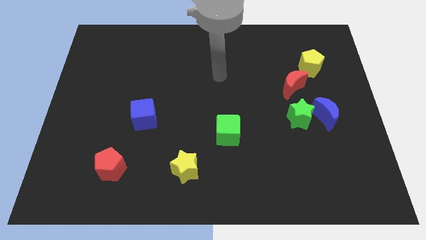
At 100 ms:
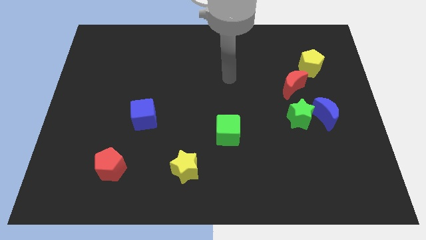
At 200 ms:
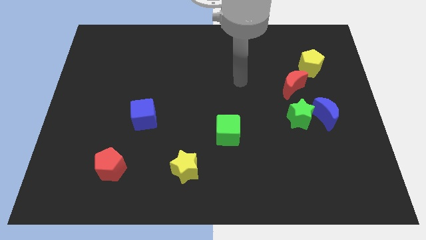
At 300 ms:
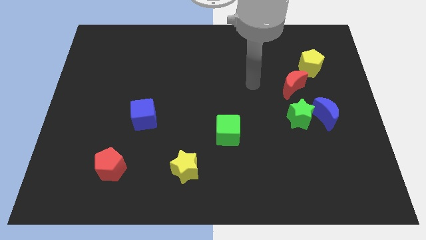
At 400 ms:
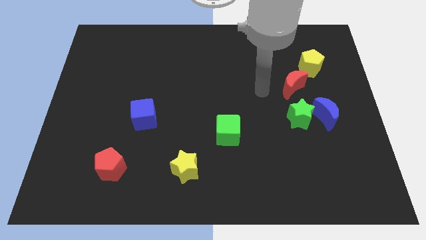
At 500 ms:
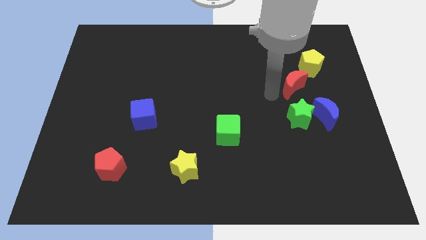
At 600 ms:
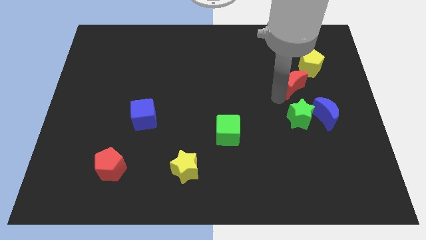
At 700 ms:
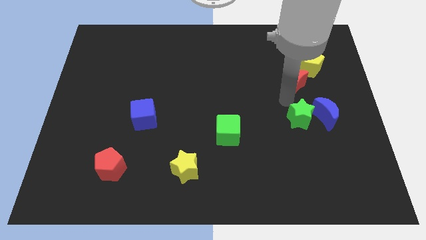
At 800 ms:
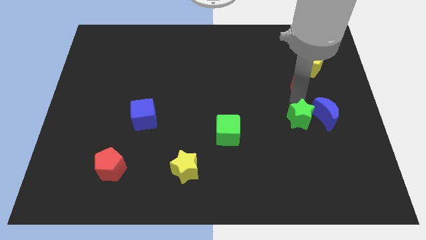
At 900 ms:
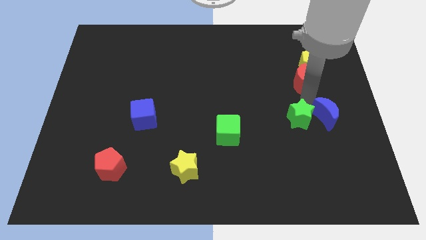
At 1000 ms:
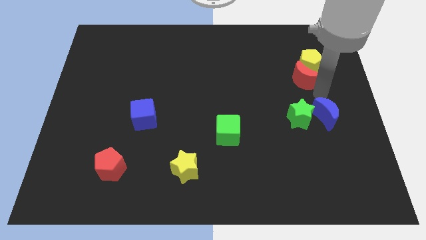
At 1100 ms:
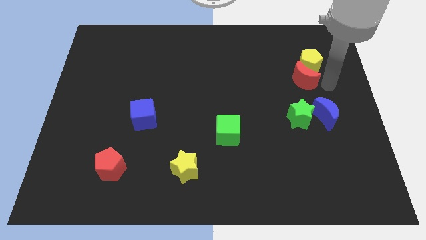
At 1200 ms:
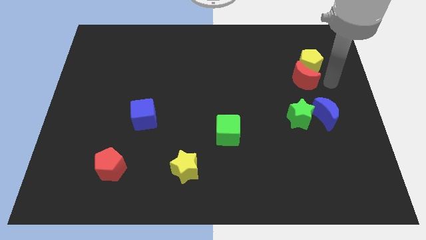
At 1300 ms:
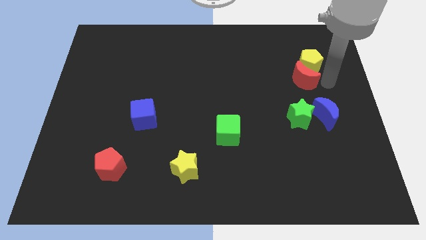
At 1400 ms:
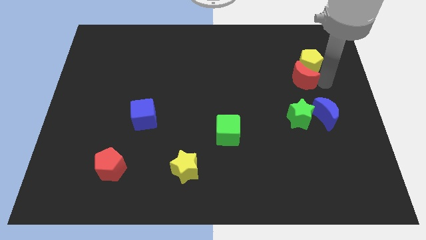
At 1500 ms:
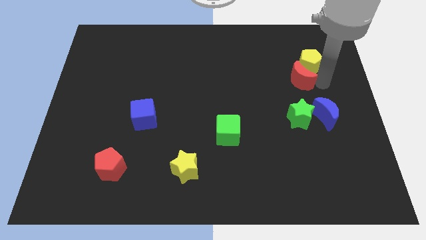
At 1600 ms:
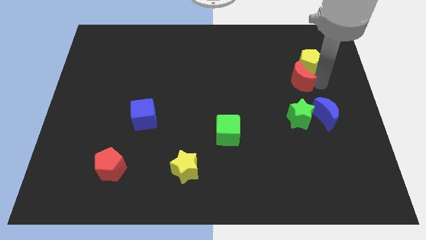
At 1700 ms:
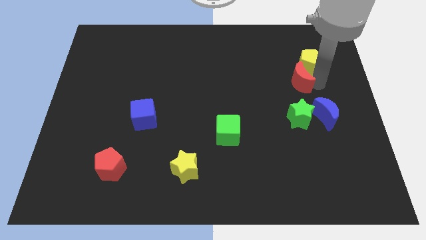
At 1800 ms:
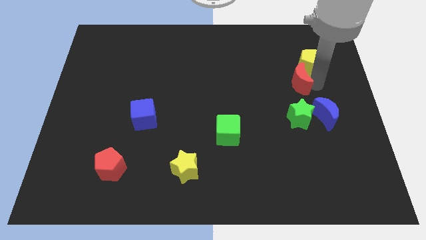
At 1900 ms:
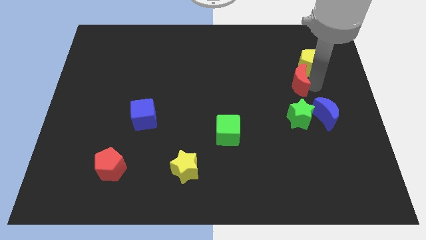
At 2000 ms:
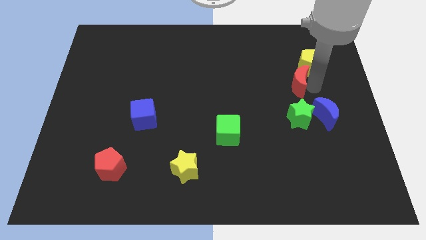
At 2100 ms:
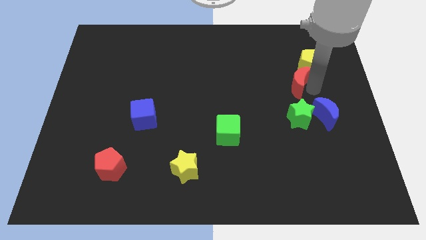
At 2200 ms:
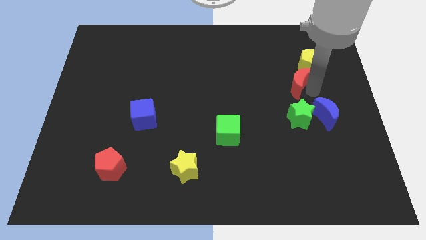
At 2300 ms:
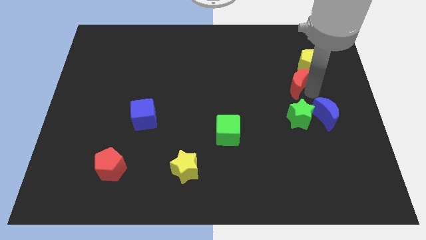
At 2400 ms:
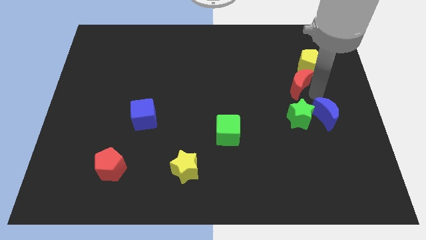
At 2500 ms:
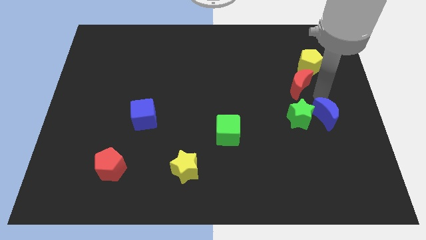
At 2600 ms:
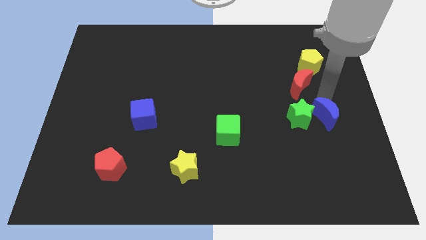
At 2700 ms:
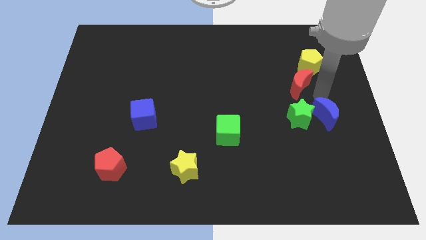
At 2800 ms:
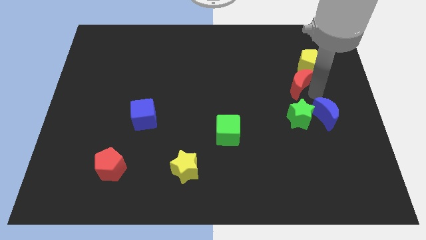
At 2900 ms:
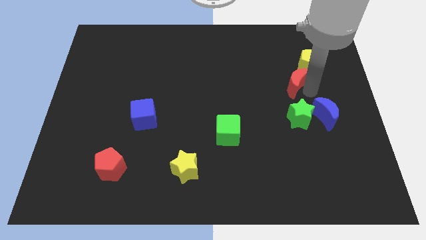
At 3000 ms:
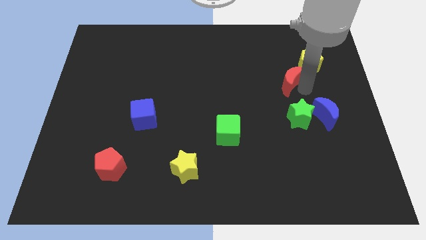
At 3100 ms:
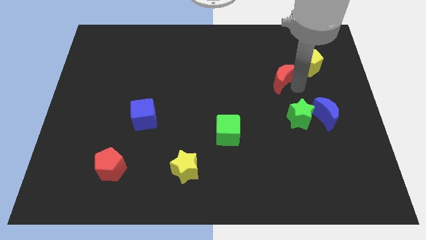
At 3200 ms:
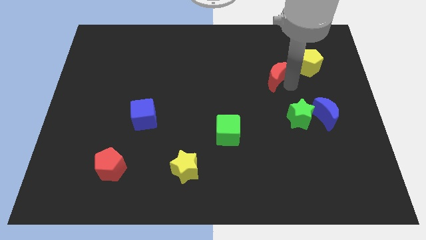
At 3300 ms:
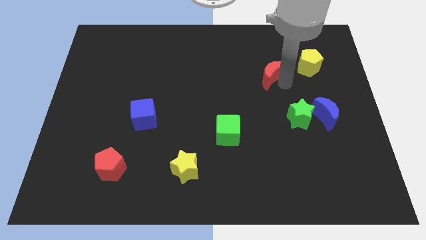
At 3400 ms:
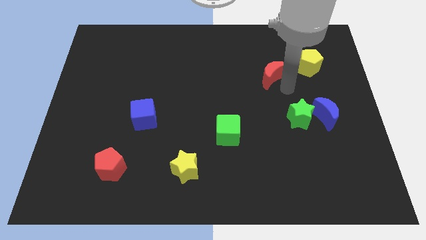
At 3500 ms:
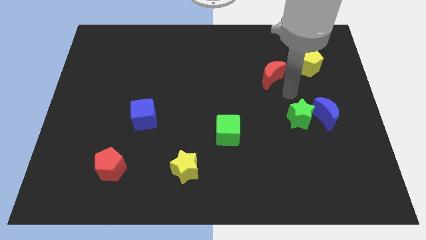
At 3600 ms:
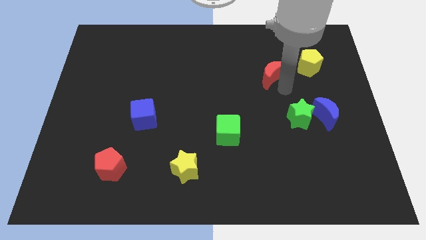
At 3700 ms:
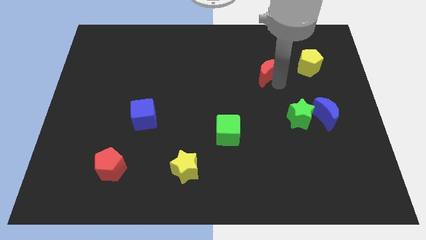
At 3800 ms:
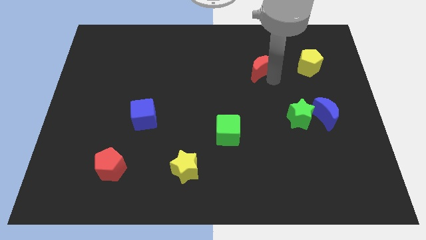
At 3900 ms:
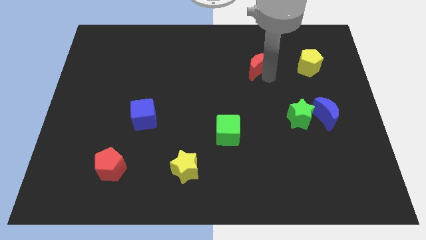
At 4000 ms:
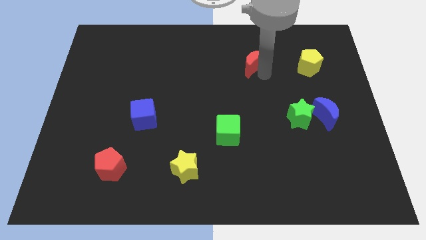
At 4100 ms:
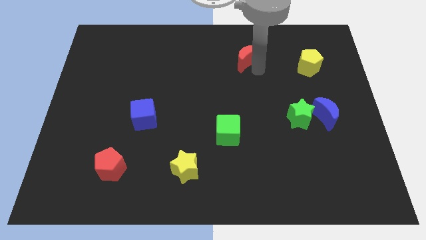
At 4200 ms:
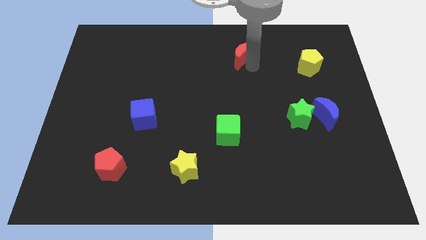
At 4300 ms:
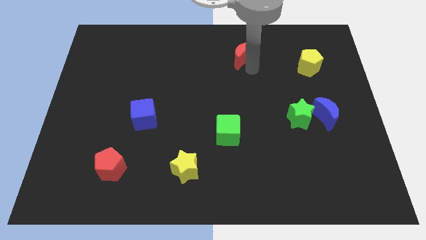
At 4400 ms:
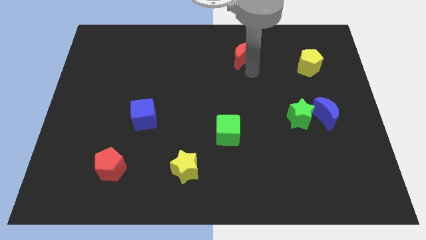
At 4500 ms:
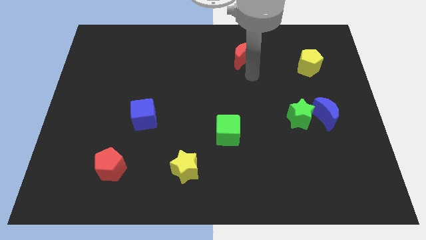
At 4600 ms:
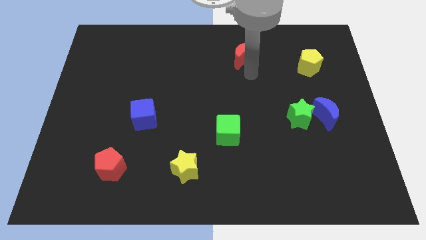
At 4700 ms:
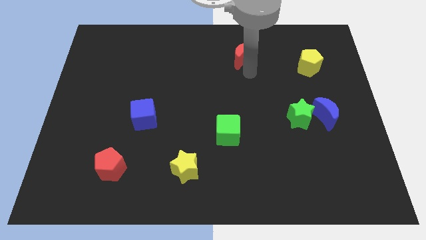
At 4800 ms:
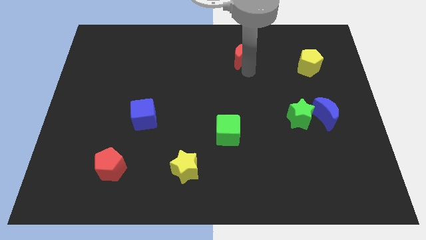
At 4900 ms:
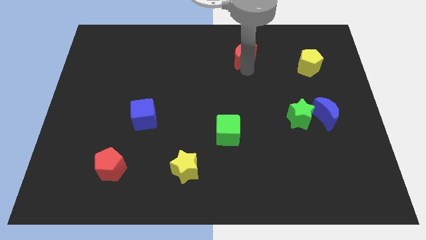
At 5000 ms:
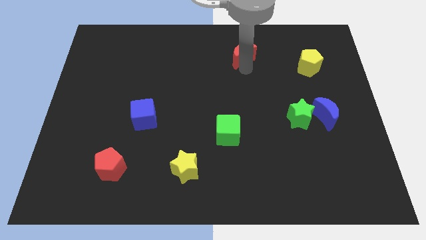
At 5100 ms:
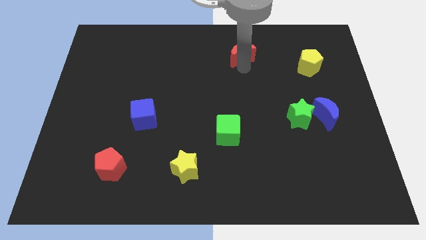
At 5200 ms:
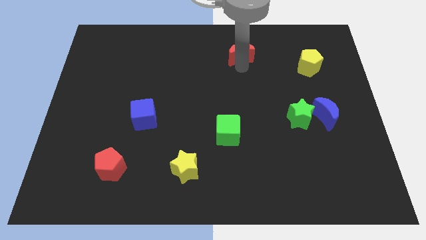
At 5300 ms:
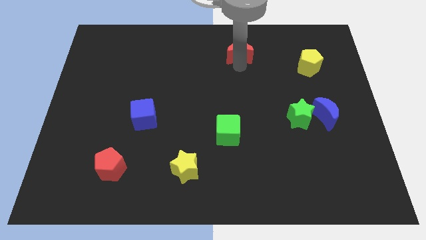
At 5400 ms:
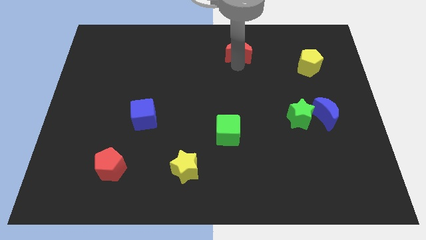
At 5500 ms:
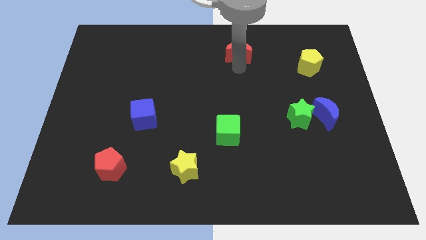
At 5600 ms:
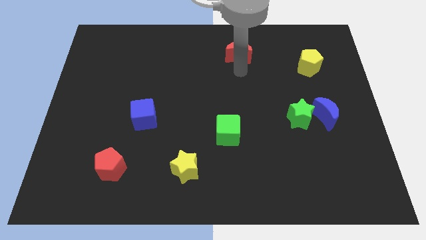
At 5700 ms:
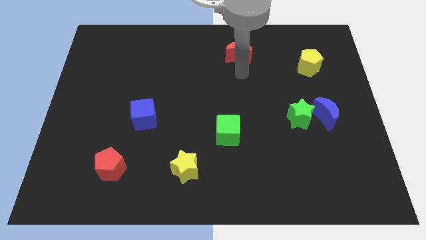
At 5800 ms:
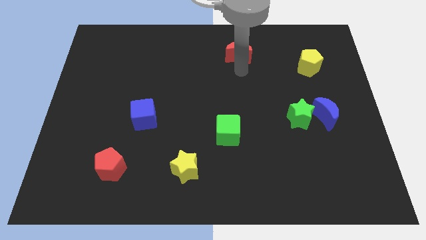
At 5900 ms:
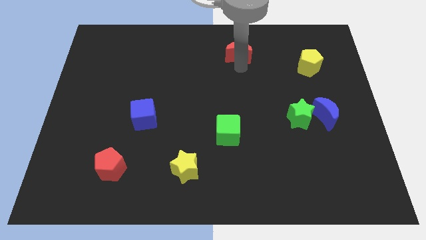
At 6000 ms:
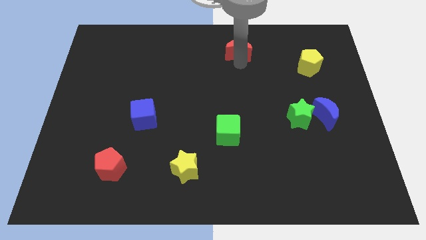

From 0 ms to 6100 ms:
put the red moon to the towards your base
